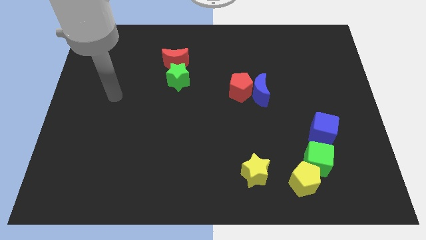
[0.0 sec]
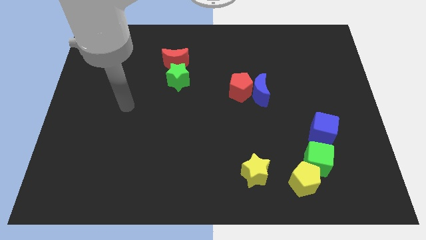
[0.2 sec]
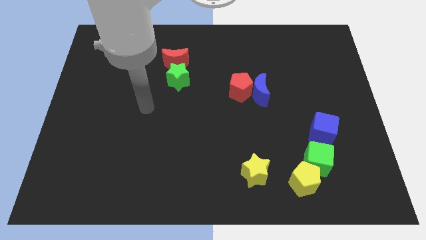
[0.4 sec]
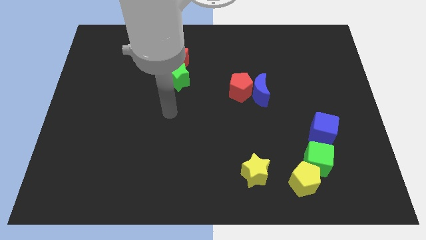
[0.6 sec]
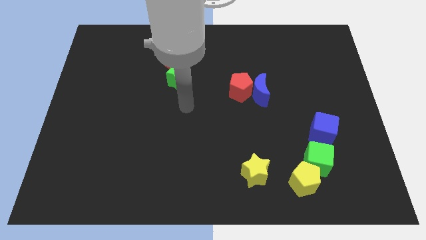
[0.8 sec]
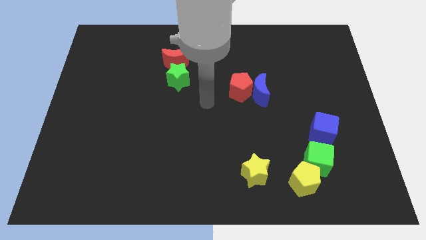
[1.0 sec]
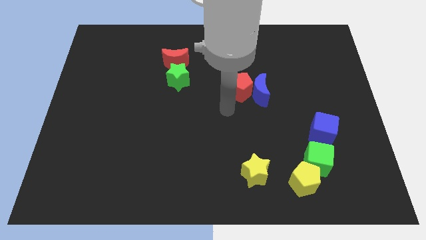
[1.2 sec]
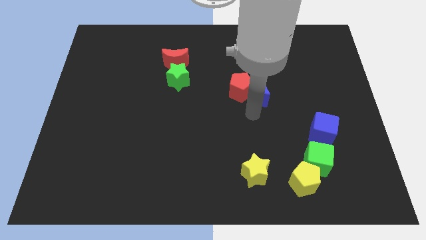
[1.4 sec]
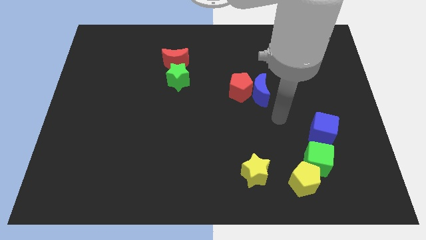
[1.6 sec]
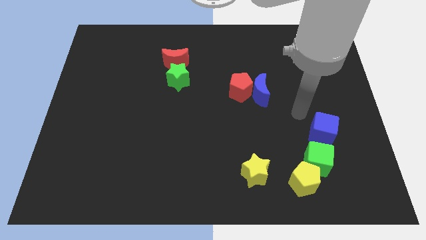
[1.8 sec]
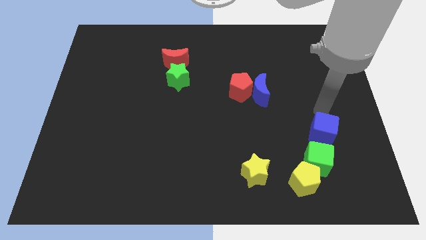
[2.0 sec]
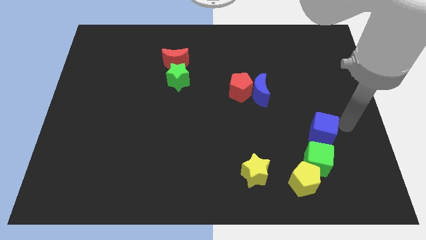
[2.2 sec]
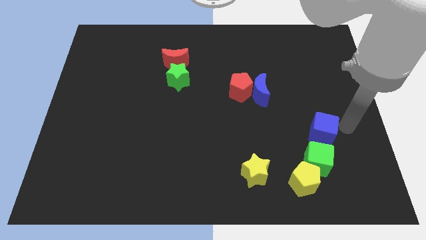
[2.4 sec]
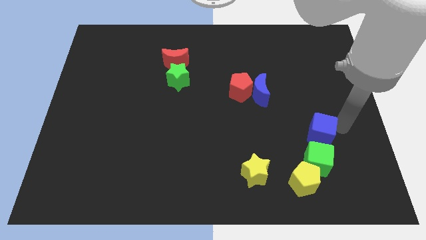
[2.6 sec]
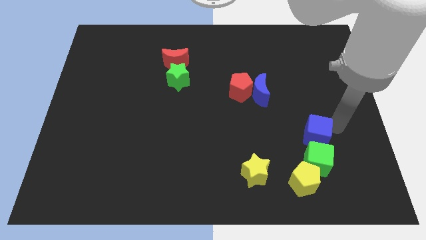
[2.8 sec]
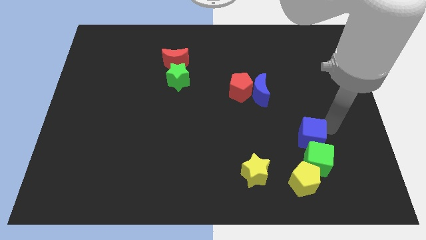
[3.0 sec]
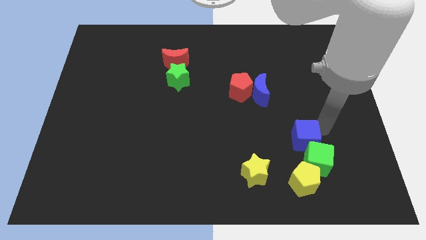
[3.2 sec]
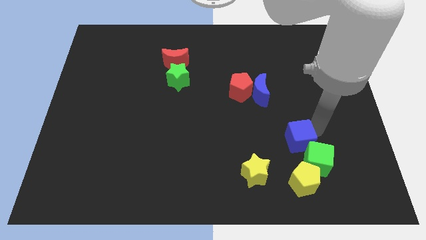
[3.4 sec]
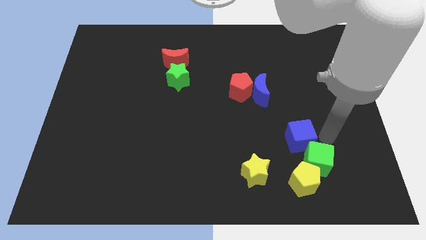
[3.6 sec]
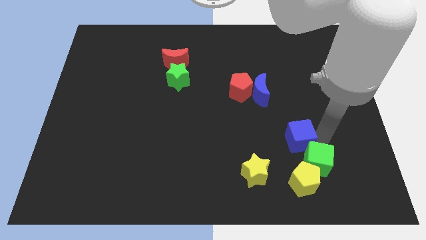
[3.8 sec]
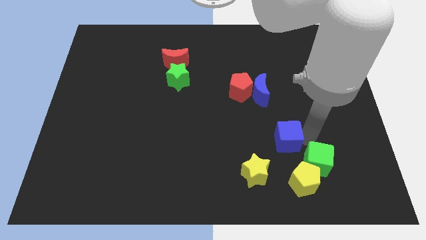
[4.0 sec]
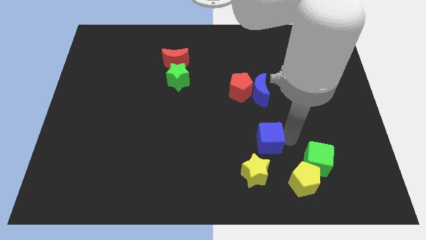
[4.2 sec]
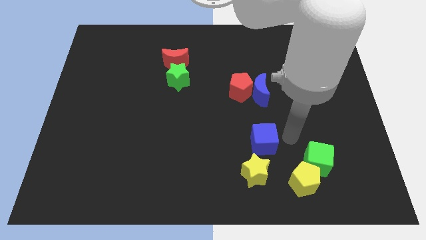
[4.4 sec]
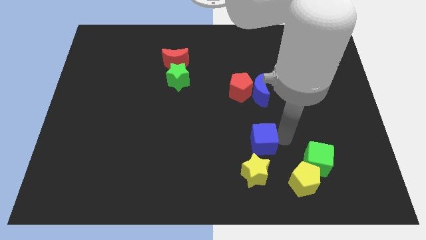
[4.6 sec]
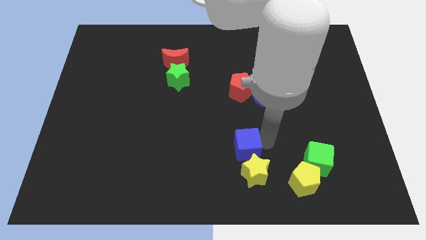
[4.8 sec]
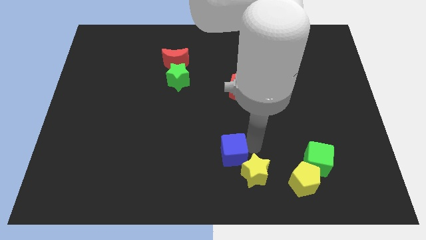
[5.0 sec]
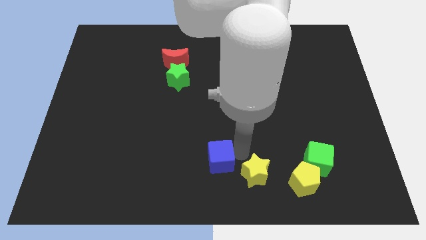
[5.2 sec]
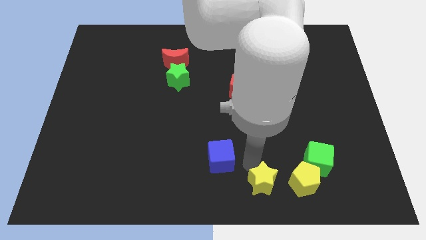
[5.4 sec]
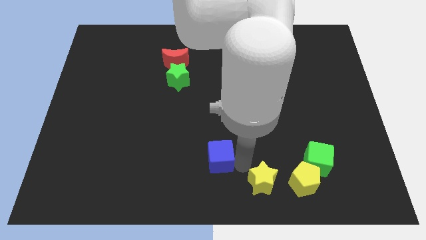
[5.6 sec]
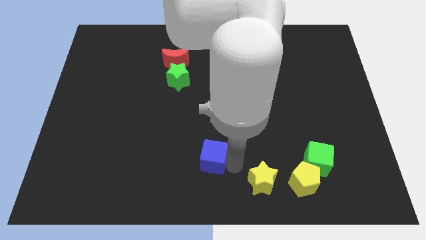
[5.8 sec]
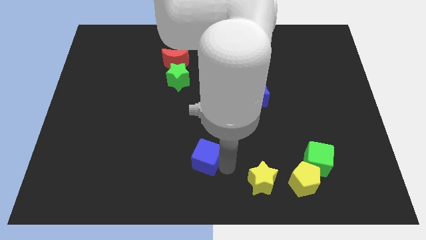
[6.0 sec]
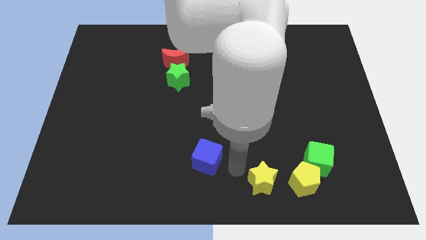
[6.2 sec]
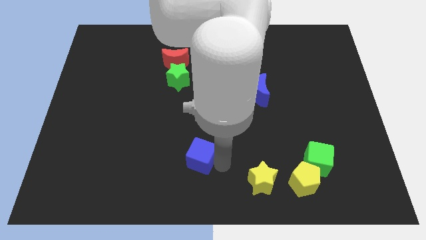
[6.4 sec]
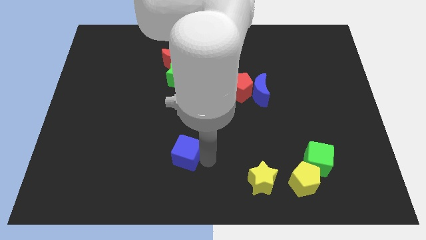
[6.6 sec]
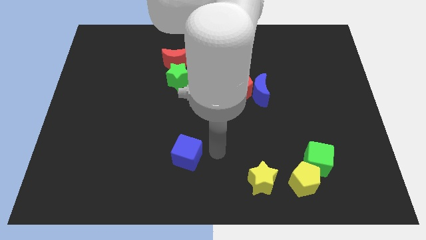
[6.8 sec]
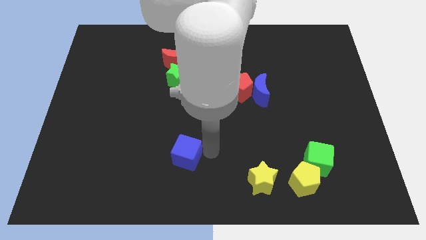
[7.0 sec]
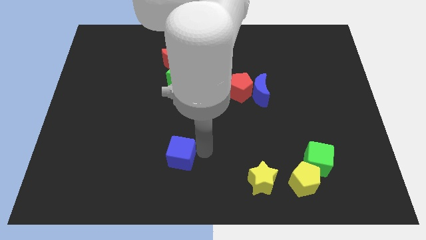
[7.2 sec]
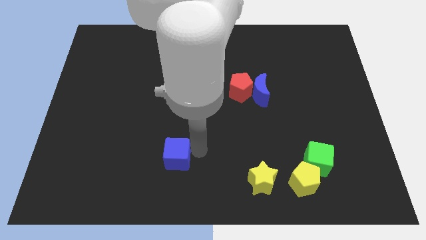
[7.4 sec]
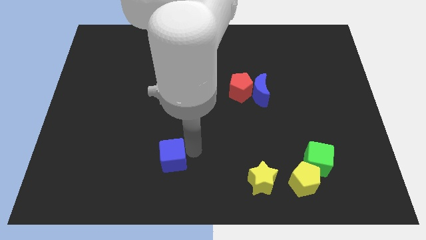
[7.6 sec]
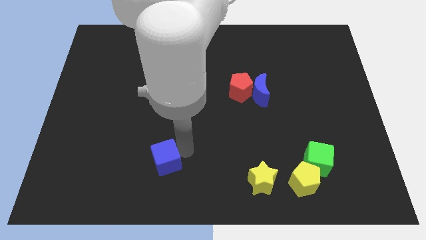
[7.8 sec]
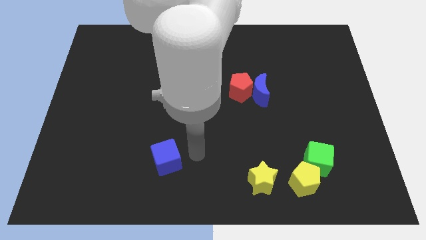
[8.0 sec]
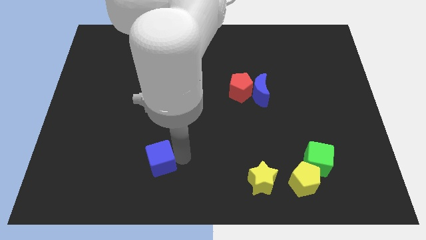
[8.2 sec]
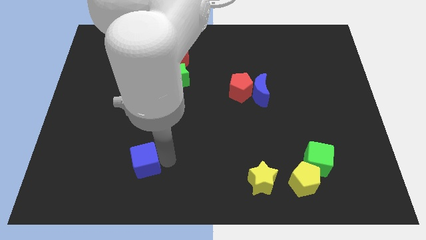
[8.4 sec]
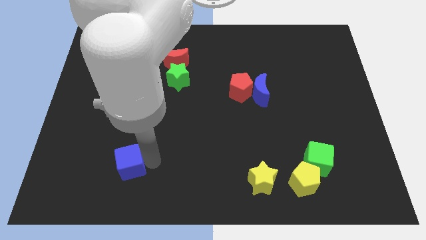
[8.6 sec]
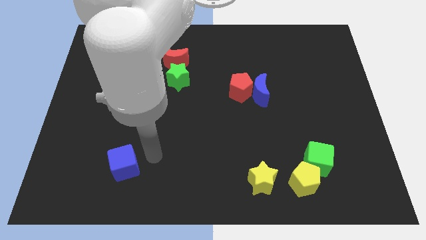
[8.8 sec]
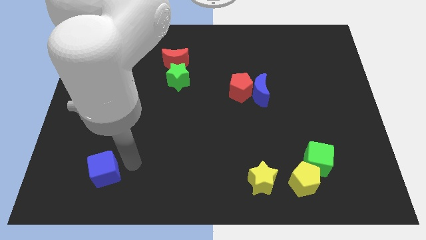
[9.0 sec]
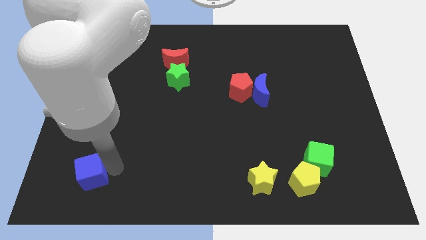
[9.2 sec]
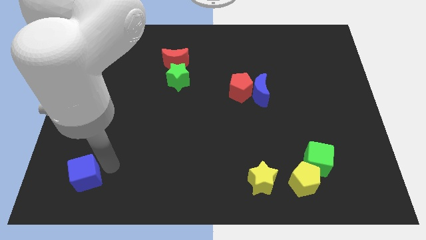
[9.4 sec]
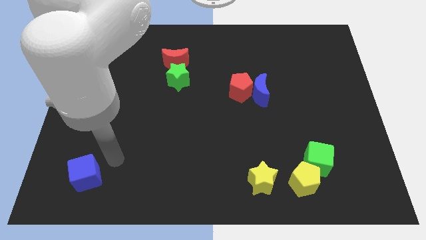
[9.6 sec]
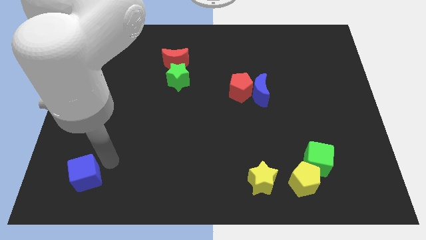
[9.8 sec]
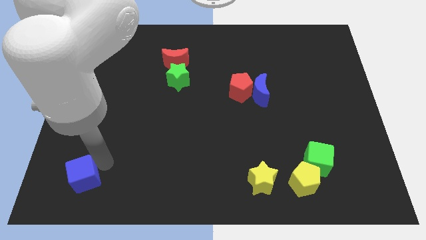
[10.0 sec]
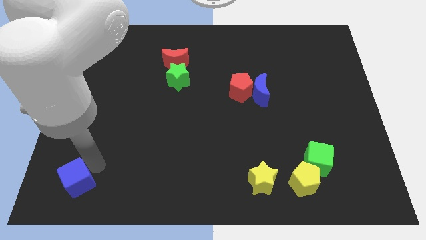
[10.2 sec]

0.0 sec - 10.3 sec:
move the blue cube to the bottom left corner

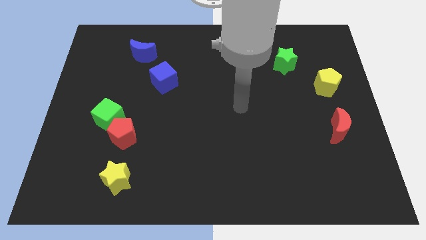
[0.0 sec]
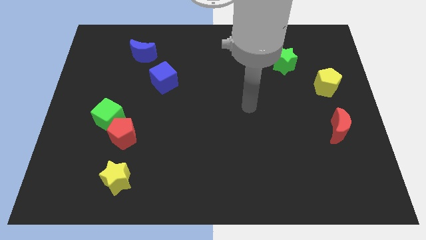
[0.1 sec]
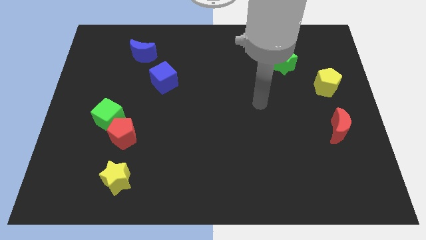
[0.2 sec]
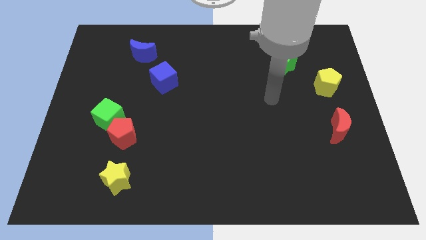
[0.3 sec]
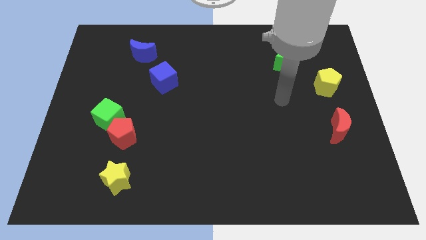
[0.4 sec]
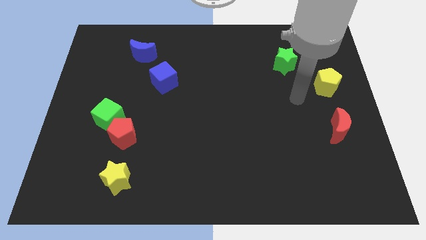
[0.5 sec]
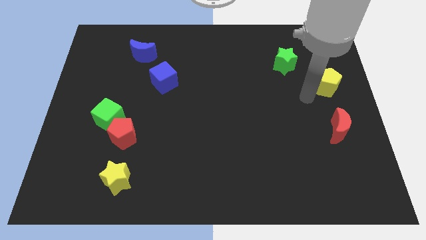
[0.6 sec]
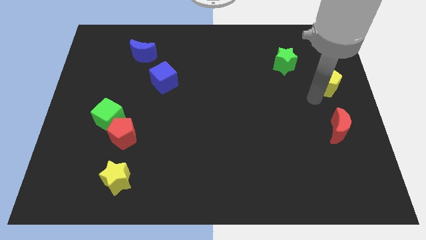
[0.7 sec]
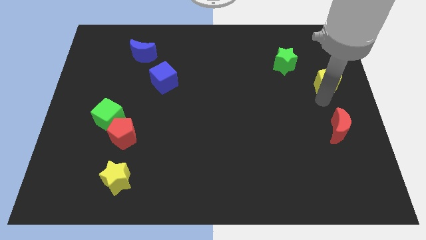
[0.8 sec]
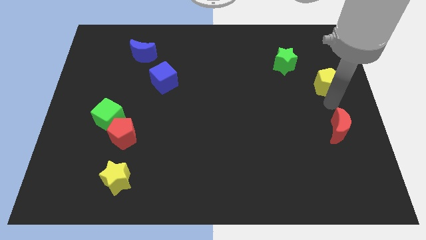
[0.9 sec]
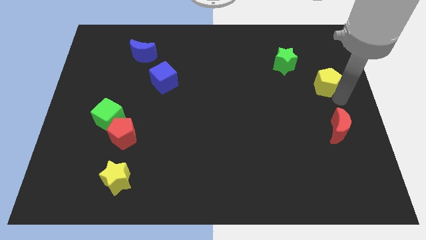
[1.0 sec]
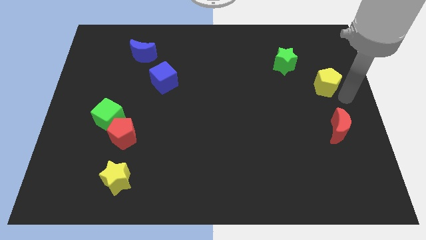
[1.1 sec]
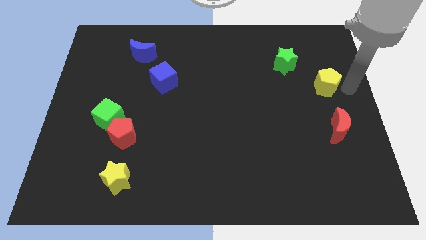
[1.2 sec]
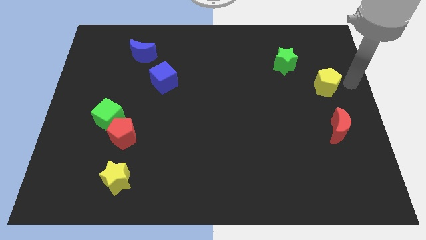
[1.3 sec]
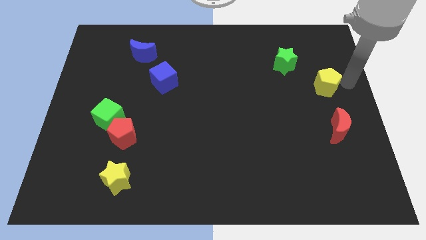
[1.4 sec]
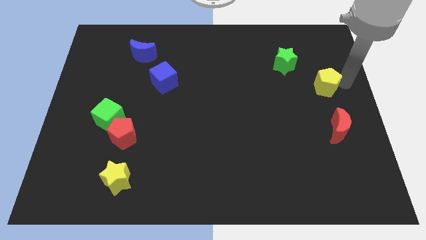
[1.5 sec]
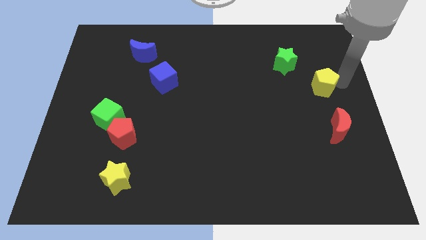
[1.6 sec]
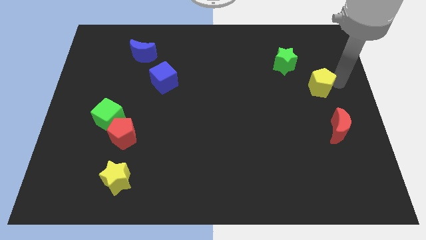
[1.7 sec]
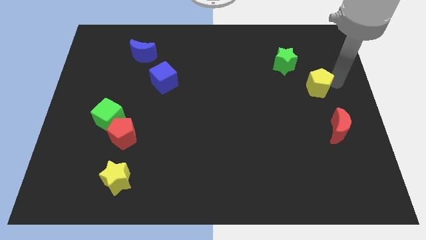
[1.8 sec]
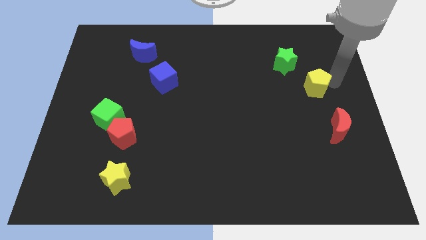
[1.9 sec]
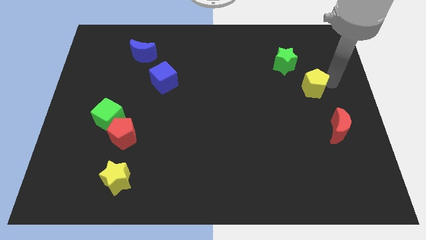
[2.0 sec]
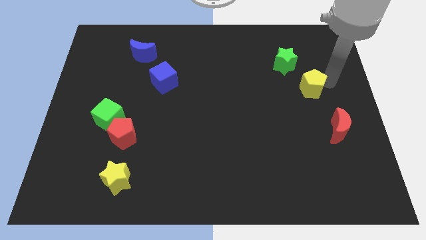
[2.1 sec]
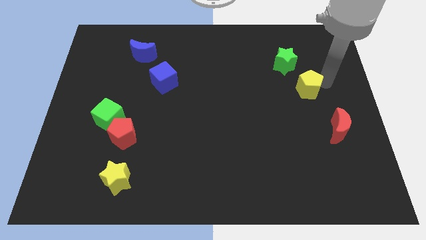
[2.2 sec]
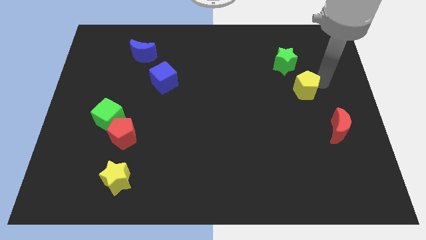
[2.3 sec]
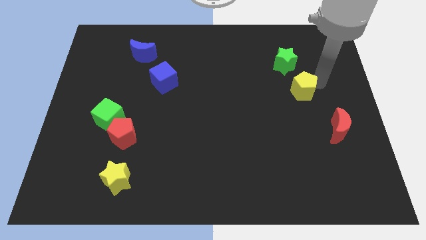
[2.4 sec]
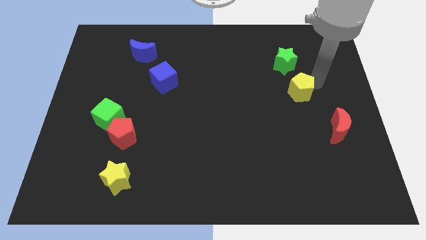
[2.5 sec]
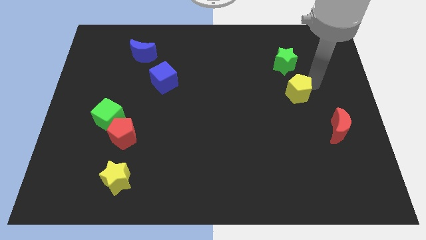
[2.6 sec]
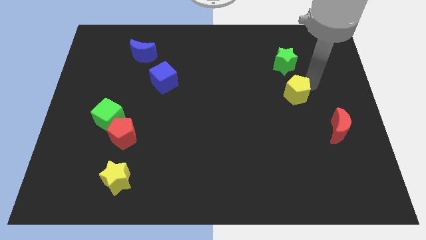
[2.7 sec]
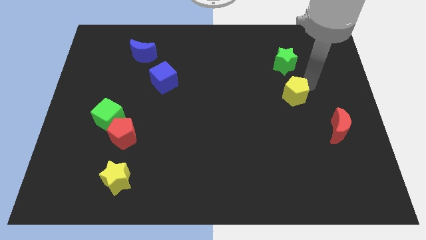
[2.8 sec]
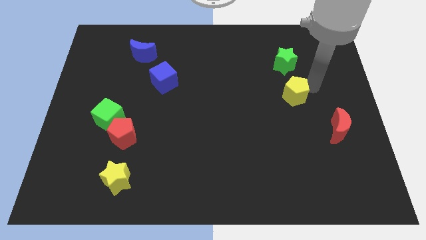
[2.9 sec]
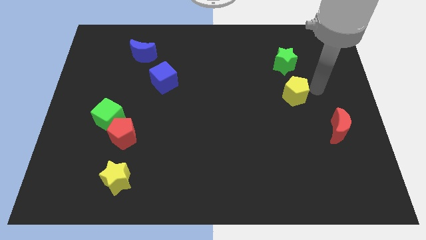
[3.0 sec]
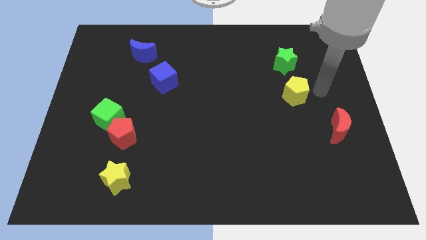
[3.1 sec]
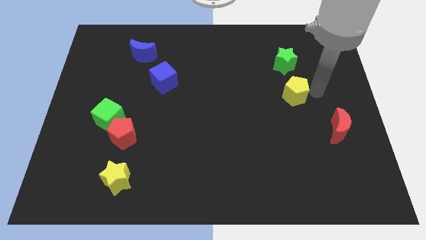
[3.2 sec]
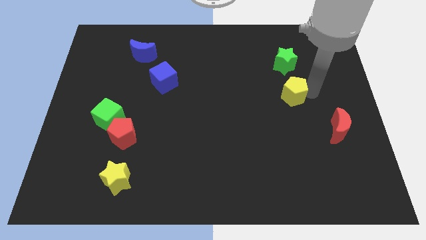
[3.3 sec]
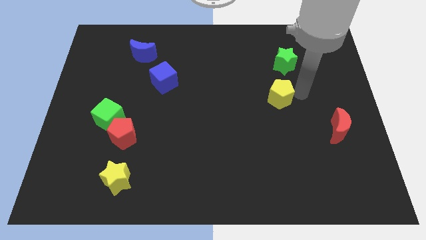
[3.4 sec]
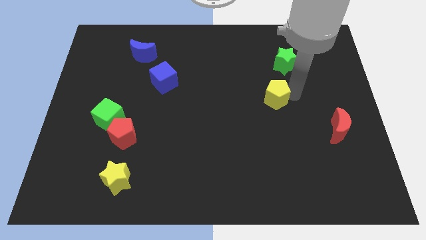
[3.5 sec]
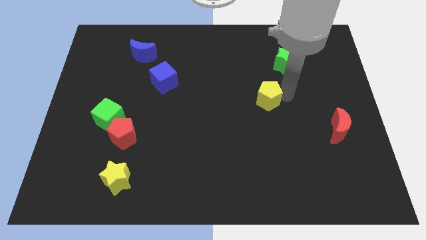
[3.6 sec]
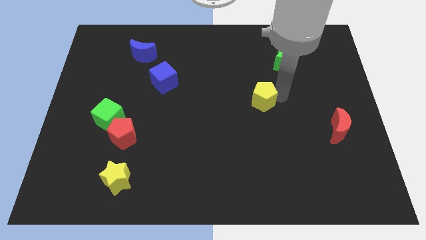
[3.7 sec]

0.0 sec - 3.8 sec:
slide the yellow pentagon to the middle of the board
